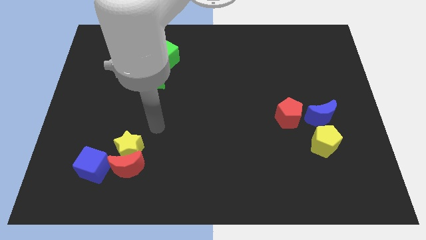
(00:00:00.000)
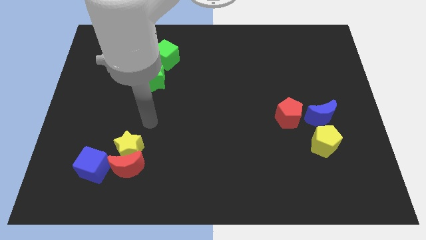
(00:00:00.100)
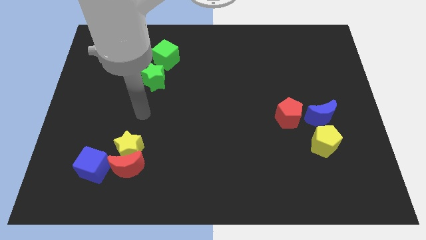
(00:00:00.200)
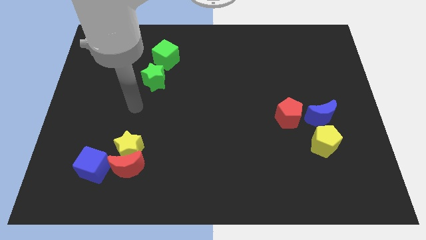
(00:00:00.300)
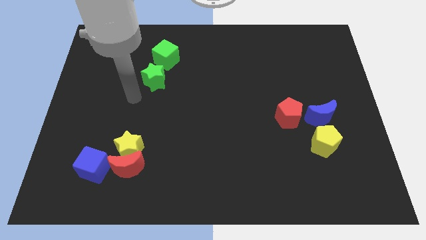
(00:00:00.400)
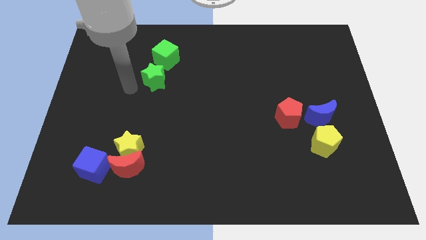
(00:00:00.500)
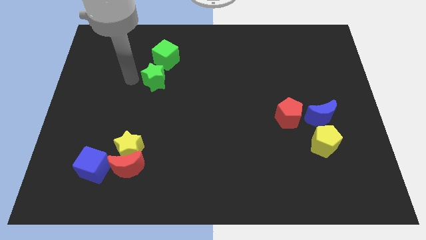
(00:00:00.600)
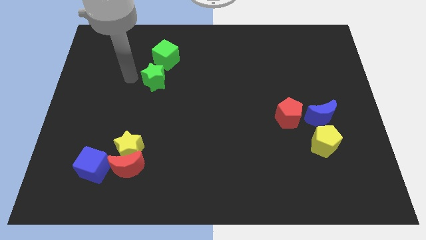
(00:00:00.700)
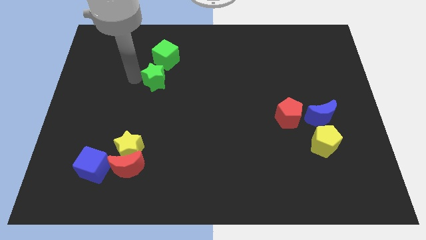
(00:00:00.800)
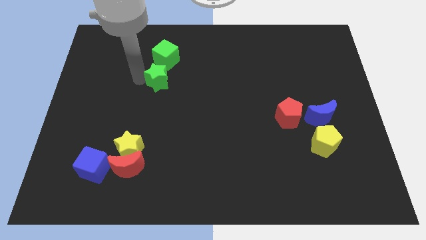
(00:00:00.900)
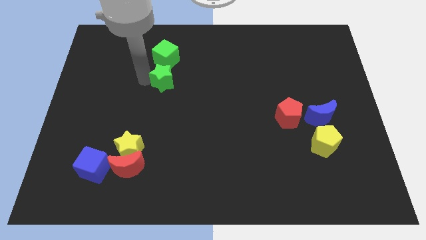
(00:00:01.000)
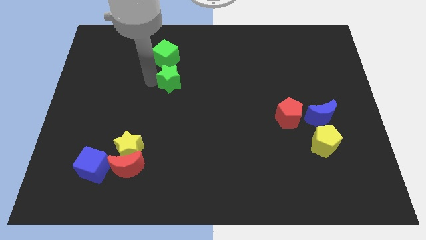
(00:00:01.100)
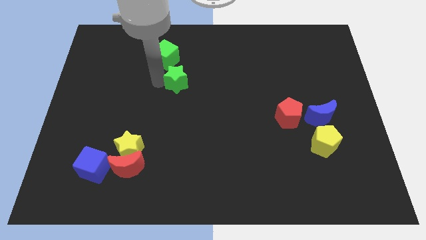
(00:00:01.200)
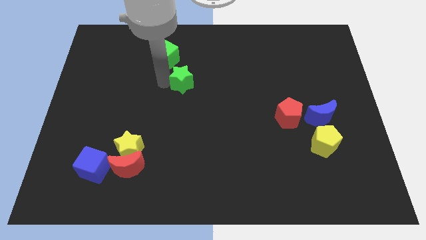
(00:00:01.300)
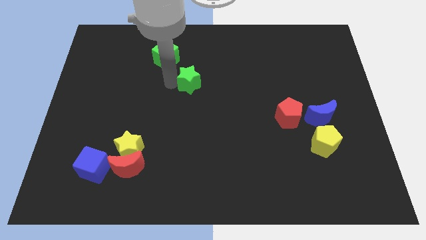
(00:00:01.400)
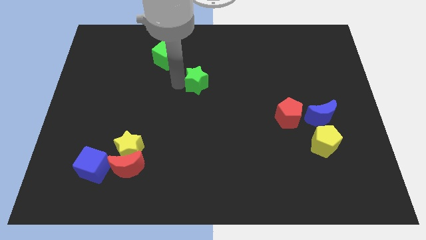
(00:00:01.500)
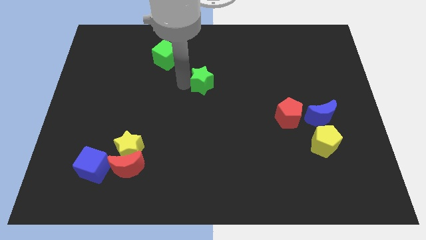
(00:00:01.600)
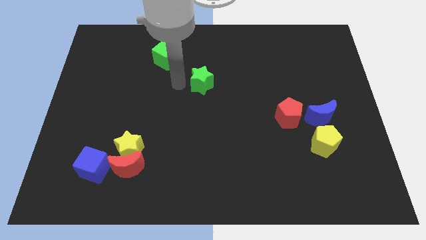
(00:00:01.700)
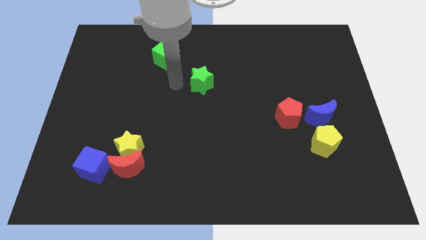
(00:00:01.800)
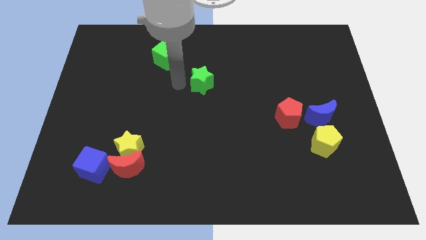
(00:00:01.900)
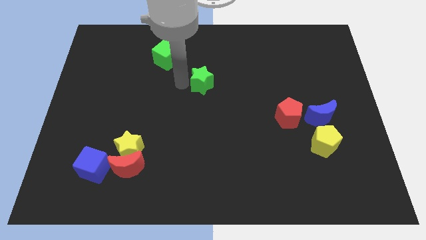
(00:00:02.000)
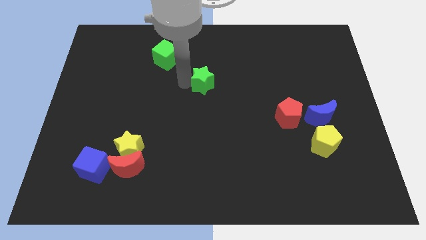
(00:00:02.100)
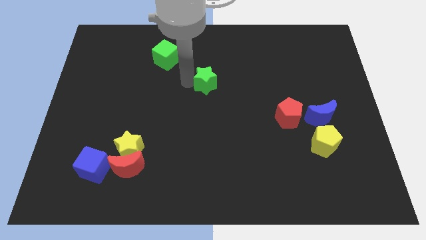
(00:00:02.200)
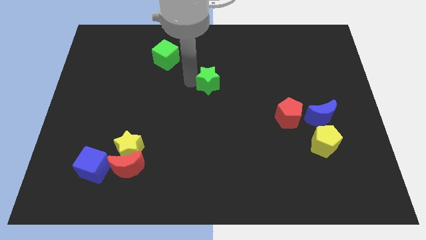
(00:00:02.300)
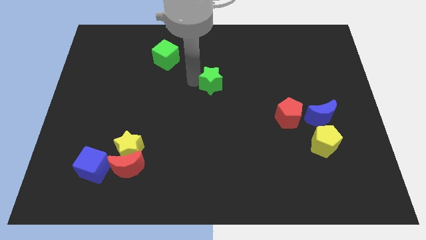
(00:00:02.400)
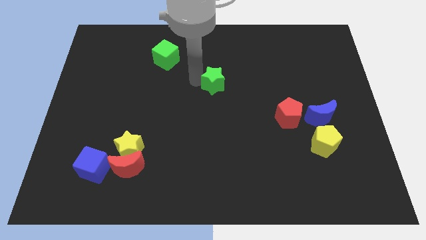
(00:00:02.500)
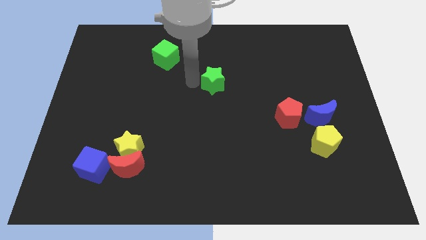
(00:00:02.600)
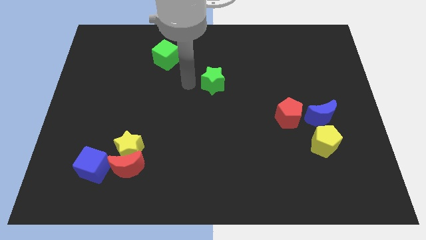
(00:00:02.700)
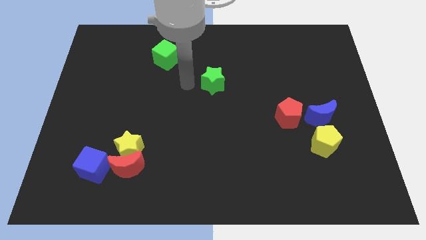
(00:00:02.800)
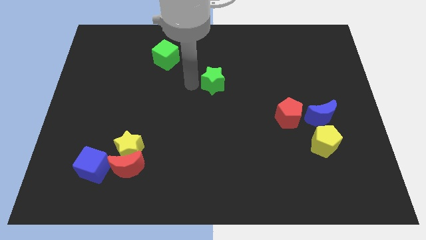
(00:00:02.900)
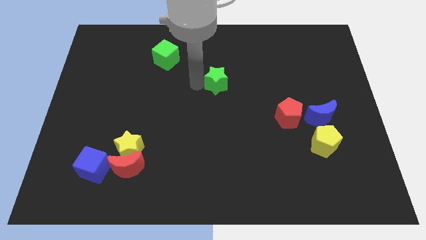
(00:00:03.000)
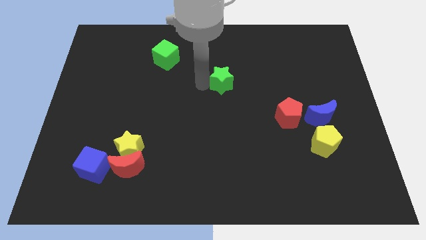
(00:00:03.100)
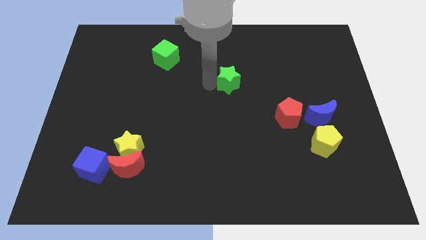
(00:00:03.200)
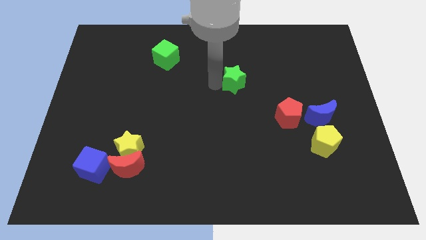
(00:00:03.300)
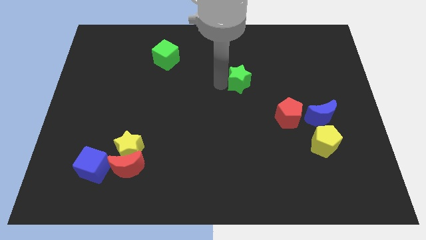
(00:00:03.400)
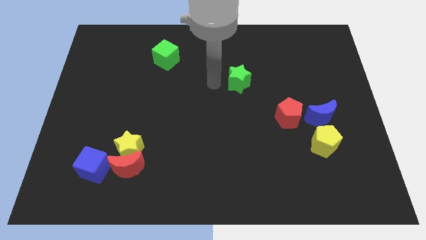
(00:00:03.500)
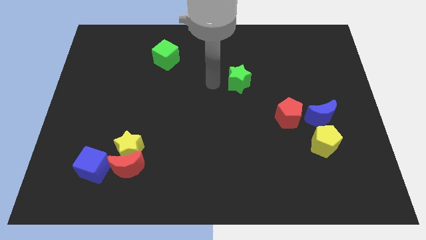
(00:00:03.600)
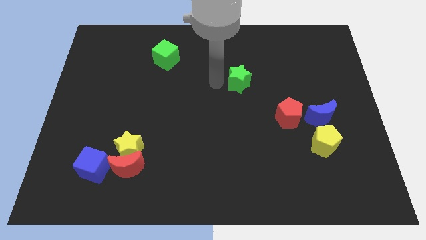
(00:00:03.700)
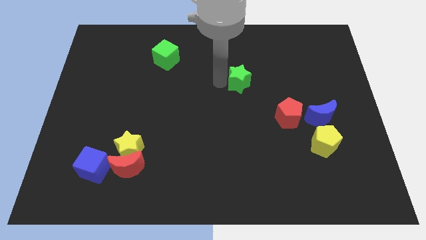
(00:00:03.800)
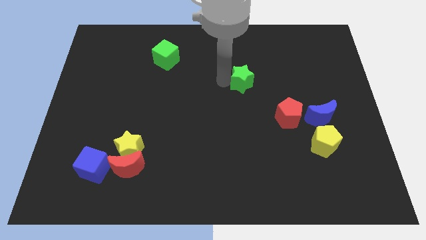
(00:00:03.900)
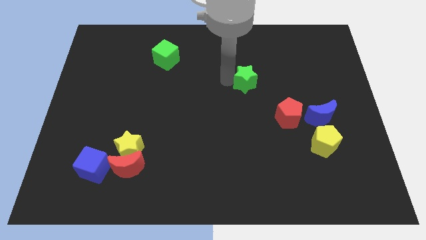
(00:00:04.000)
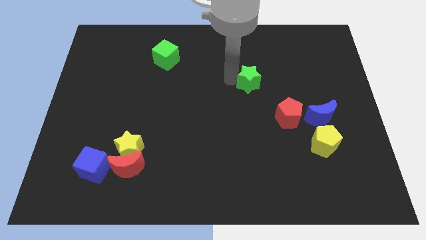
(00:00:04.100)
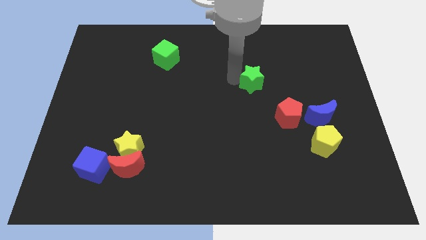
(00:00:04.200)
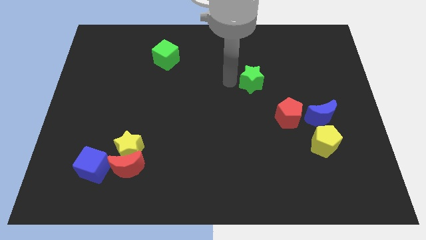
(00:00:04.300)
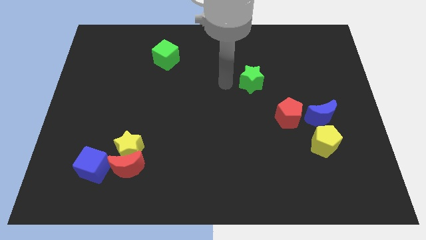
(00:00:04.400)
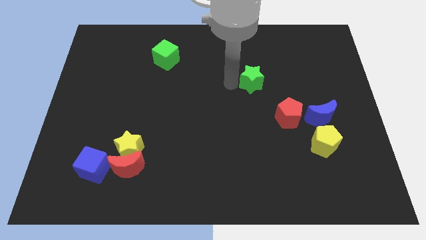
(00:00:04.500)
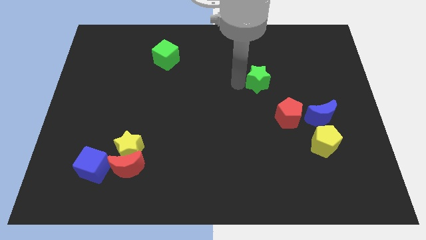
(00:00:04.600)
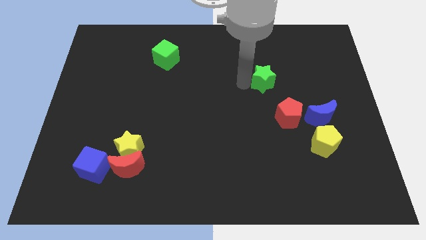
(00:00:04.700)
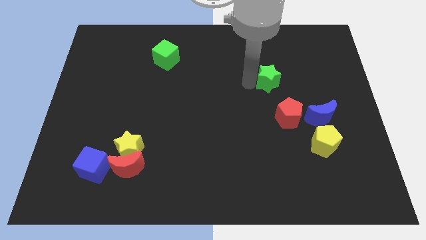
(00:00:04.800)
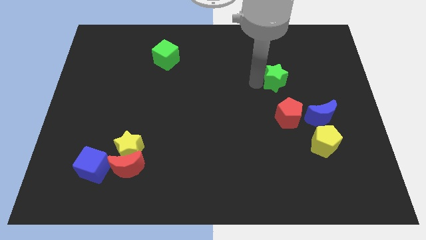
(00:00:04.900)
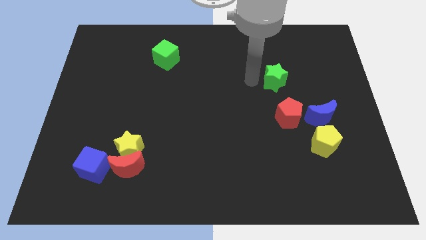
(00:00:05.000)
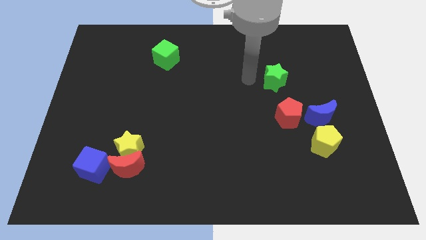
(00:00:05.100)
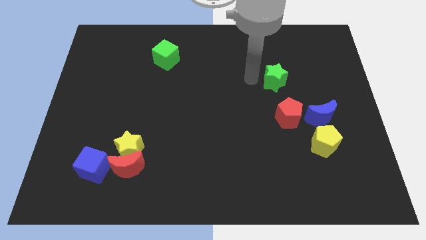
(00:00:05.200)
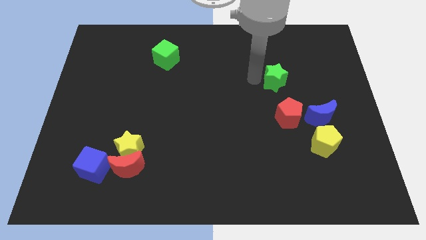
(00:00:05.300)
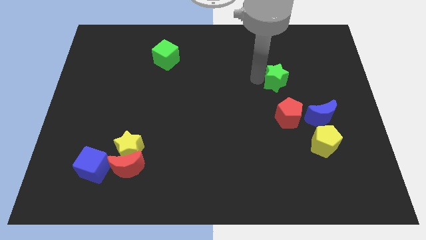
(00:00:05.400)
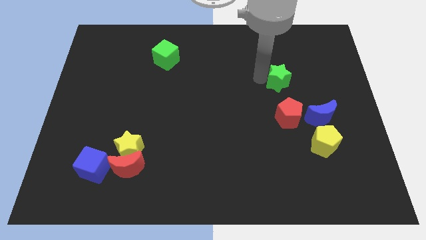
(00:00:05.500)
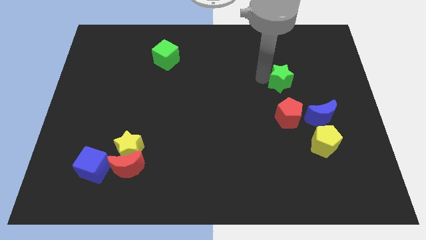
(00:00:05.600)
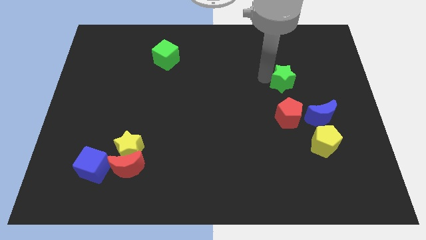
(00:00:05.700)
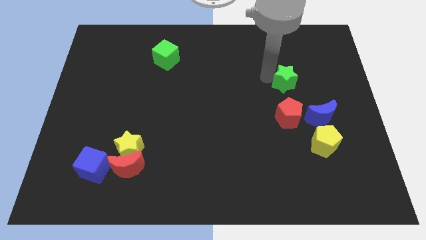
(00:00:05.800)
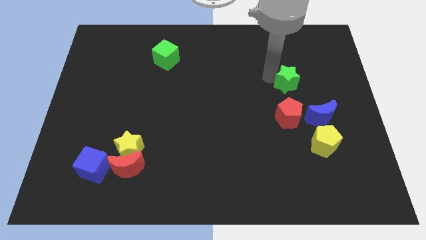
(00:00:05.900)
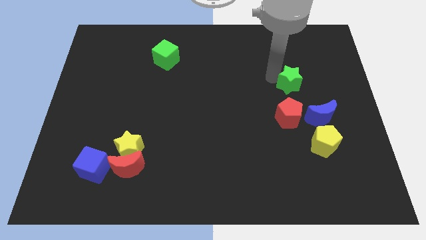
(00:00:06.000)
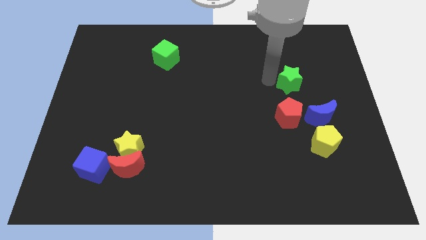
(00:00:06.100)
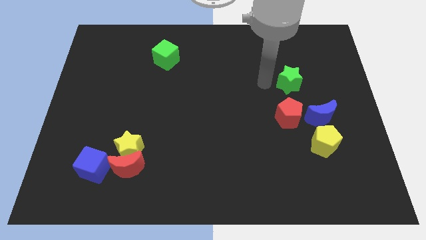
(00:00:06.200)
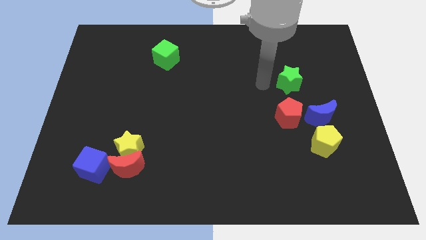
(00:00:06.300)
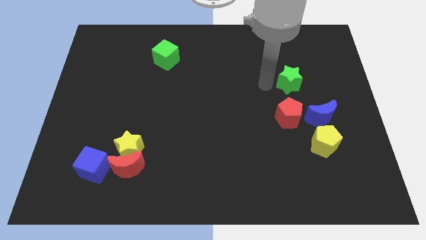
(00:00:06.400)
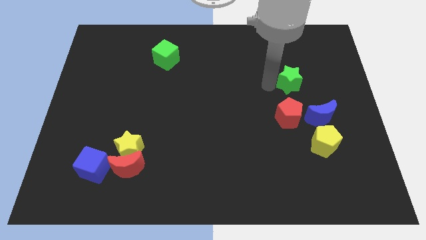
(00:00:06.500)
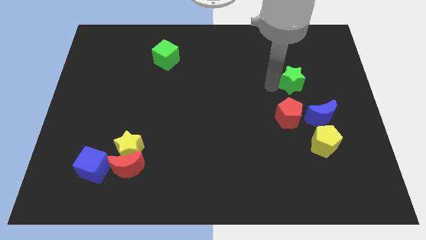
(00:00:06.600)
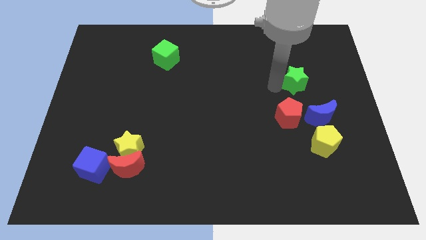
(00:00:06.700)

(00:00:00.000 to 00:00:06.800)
move the green star above the blue moon

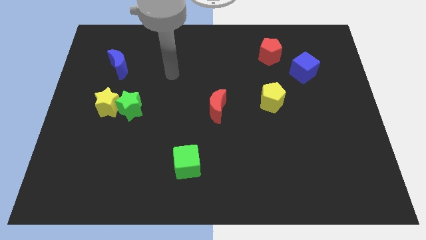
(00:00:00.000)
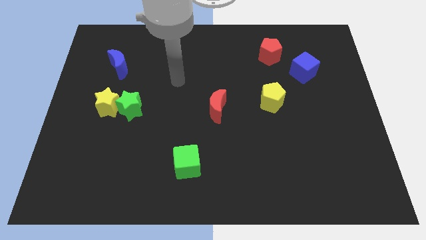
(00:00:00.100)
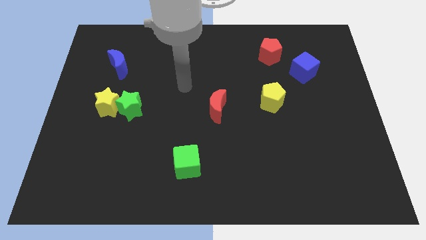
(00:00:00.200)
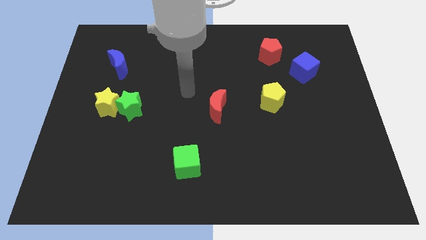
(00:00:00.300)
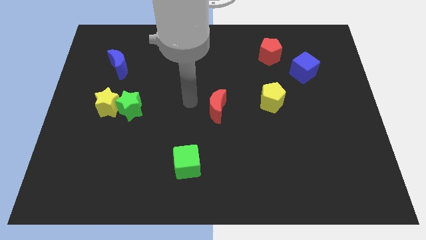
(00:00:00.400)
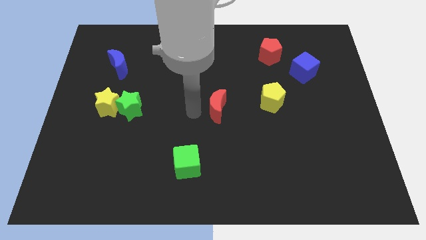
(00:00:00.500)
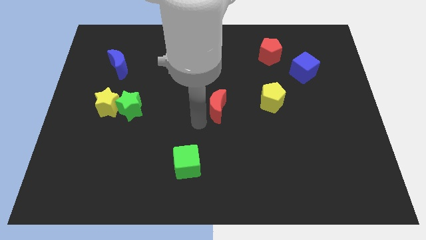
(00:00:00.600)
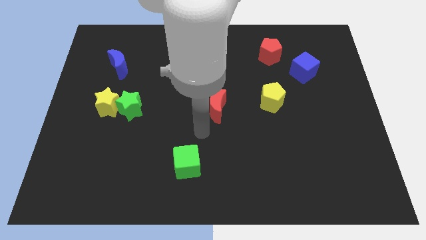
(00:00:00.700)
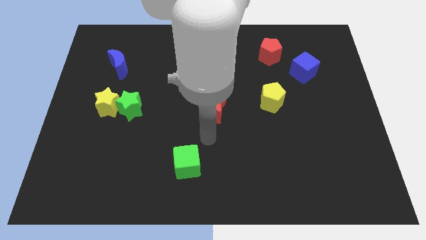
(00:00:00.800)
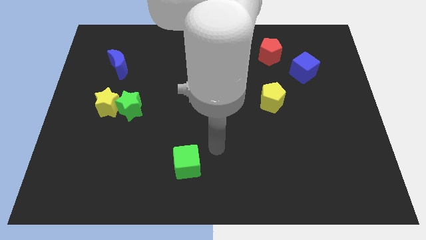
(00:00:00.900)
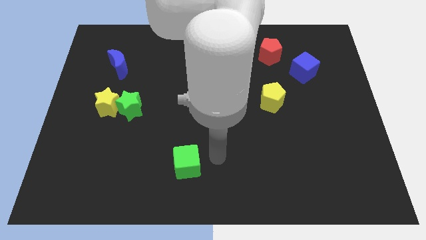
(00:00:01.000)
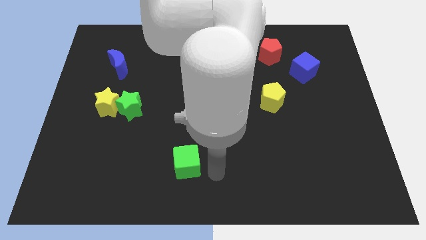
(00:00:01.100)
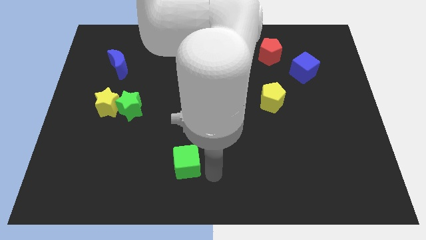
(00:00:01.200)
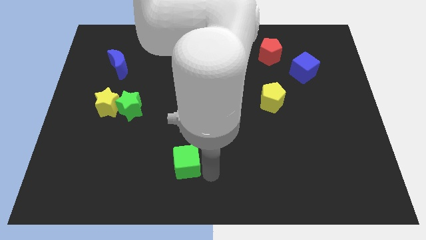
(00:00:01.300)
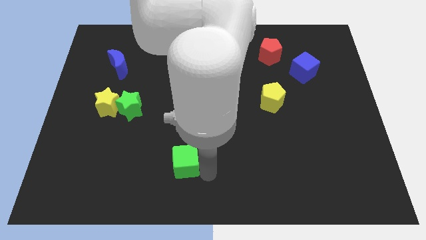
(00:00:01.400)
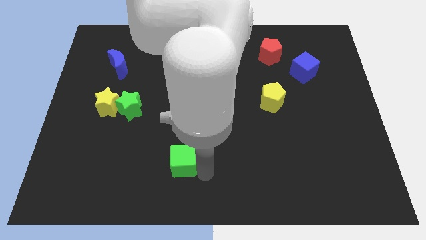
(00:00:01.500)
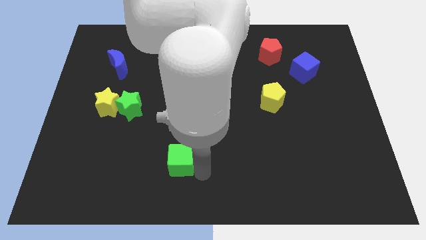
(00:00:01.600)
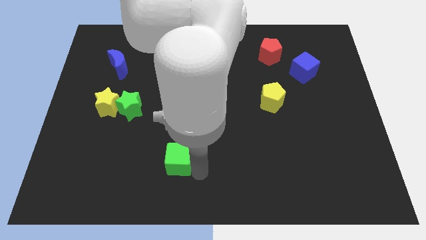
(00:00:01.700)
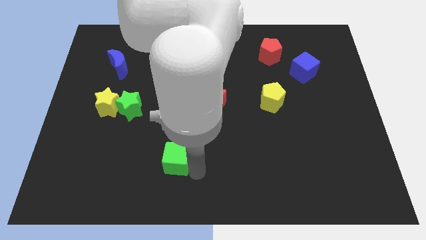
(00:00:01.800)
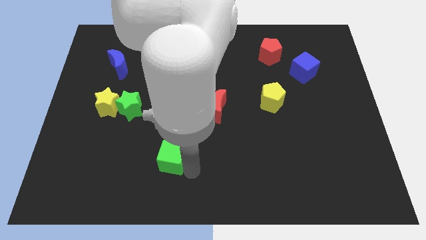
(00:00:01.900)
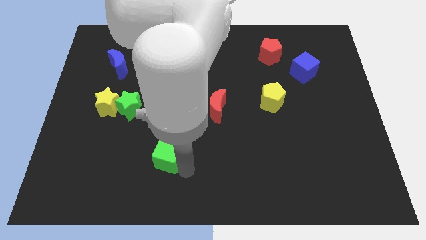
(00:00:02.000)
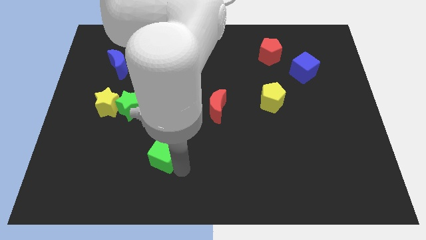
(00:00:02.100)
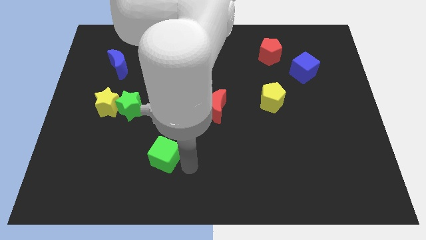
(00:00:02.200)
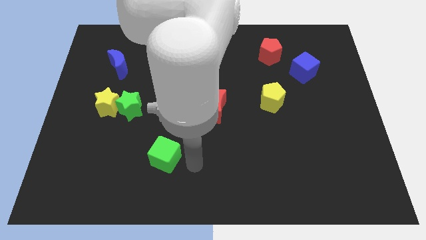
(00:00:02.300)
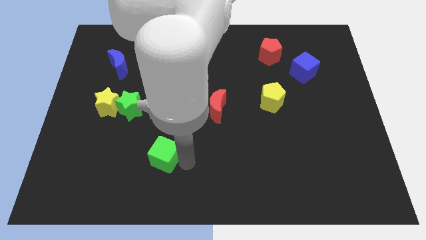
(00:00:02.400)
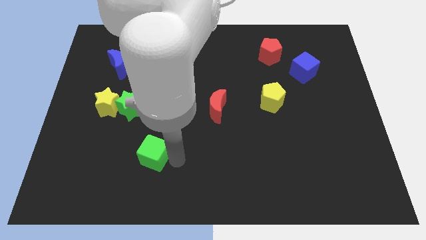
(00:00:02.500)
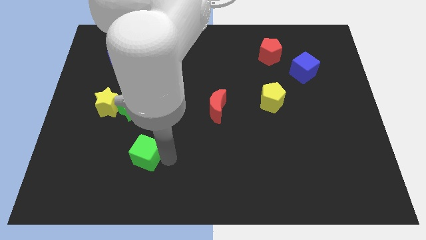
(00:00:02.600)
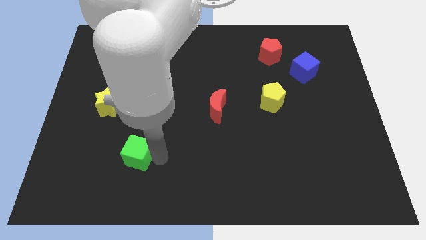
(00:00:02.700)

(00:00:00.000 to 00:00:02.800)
slide the green cube to the bottom of the green star
